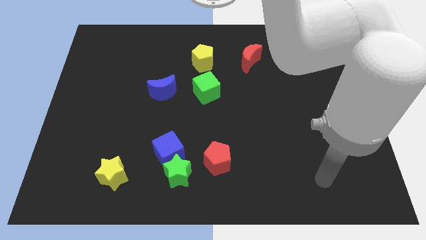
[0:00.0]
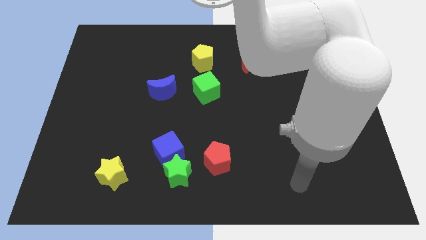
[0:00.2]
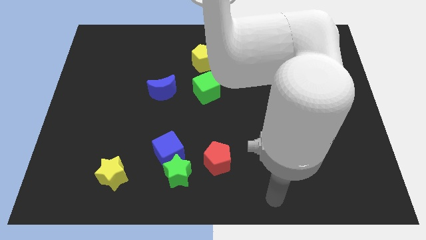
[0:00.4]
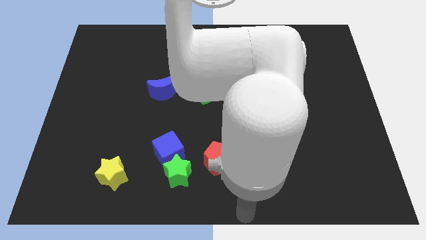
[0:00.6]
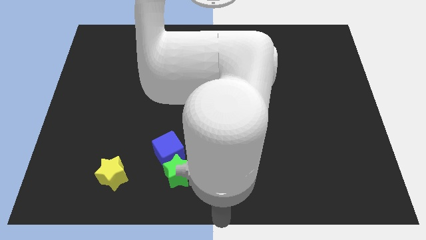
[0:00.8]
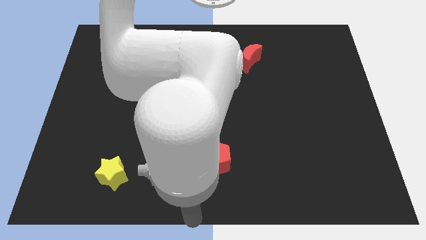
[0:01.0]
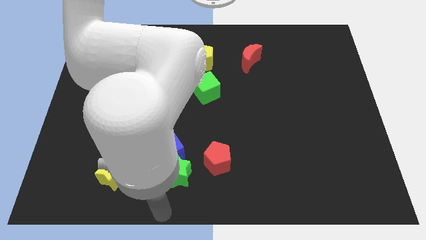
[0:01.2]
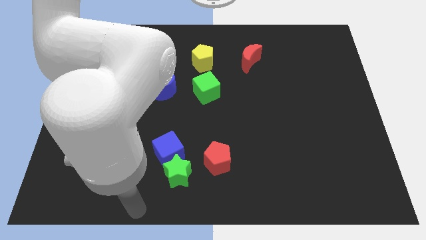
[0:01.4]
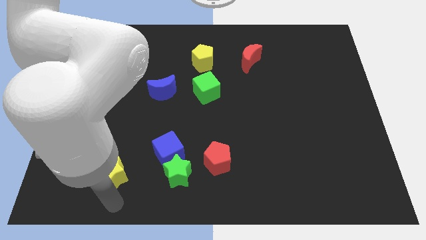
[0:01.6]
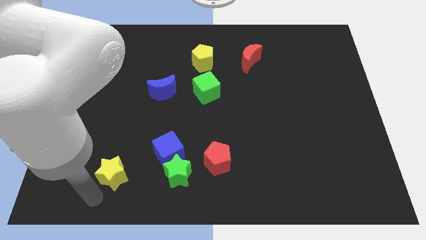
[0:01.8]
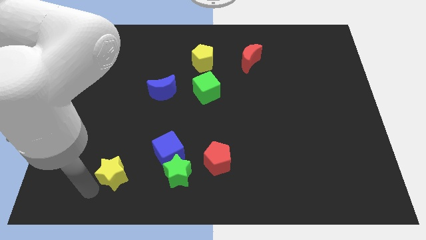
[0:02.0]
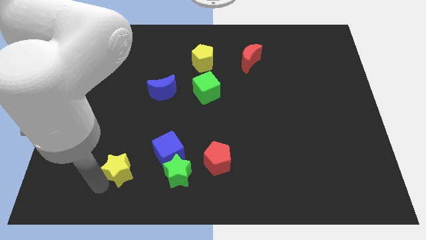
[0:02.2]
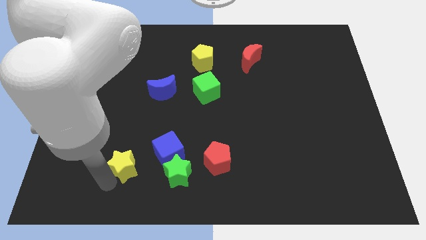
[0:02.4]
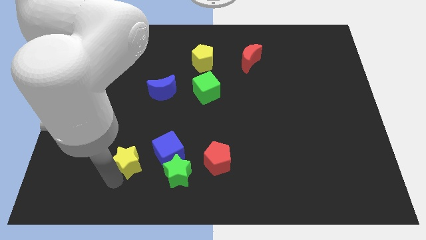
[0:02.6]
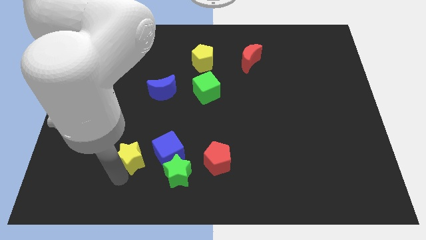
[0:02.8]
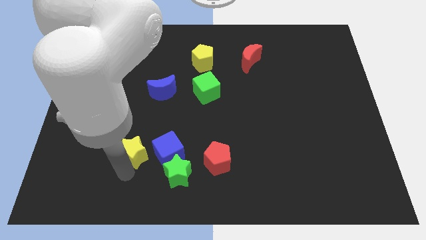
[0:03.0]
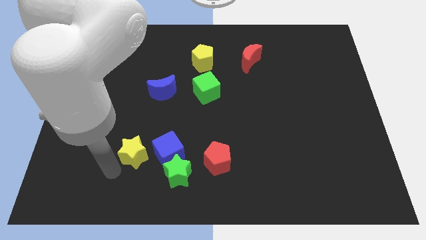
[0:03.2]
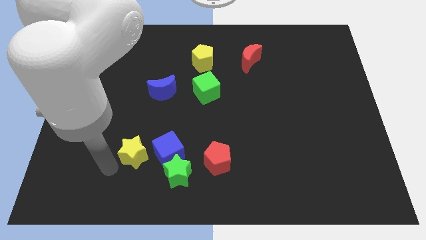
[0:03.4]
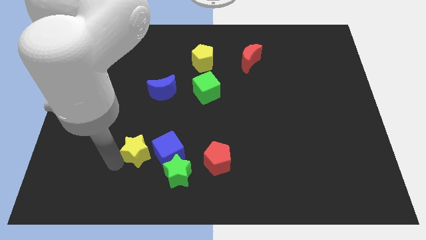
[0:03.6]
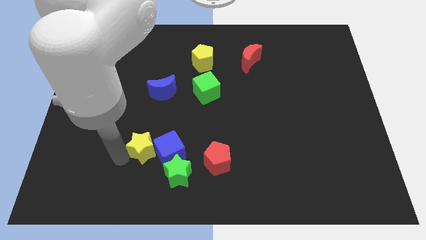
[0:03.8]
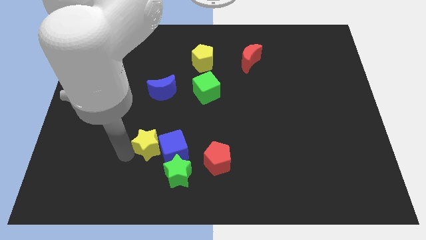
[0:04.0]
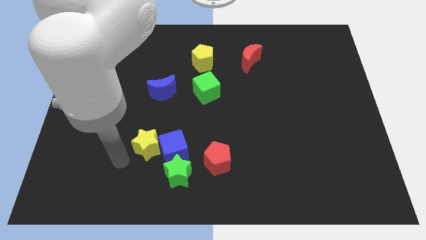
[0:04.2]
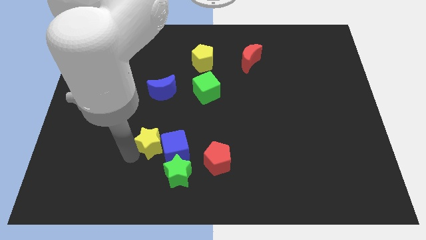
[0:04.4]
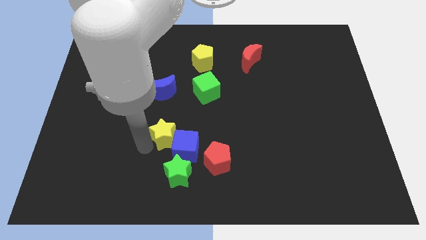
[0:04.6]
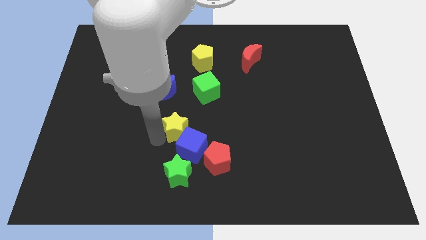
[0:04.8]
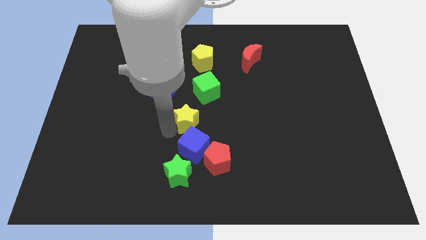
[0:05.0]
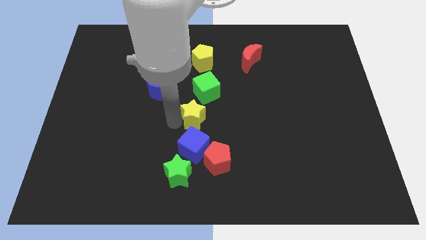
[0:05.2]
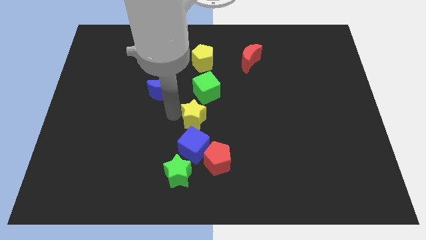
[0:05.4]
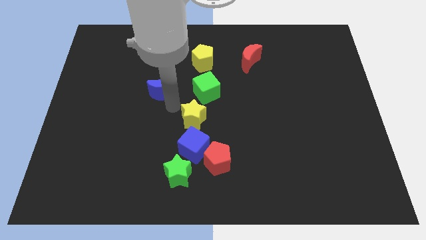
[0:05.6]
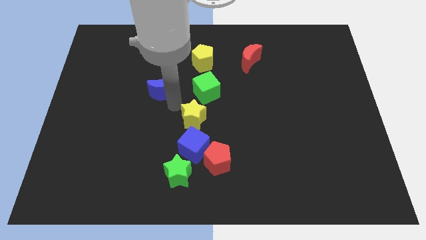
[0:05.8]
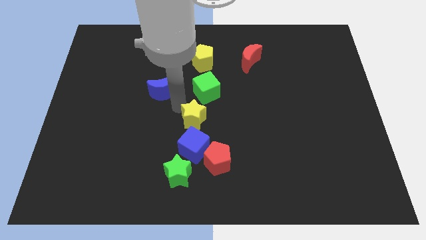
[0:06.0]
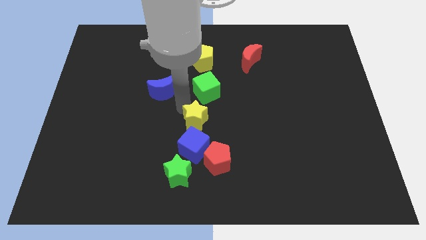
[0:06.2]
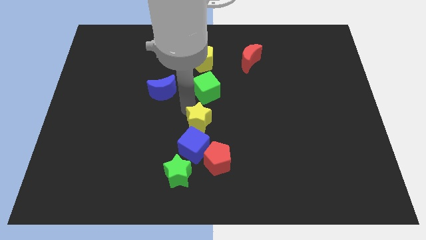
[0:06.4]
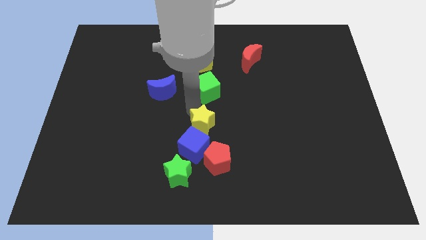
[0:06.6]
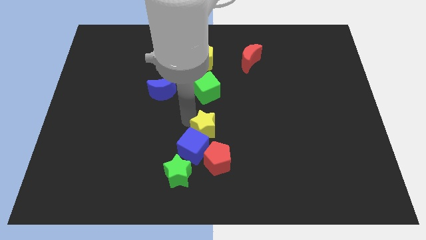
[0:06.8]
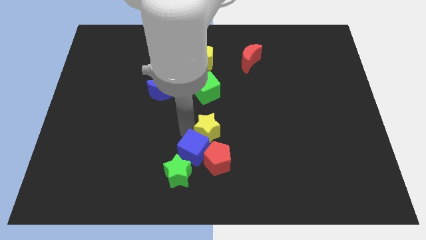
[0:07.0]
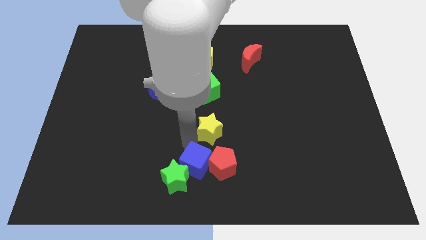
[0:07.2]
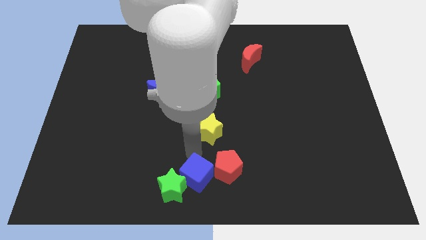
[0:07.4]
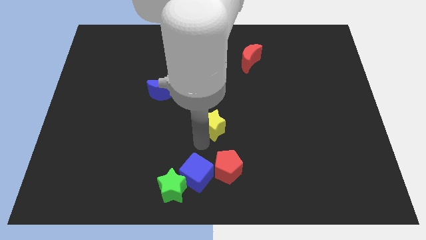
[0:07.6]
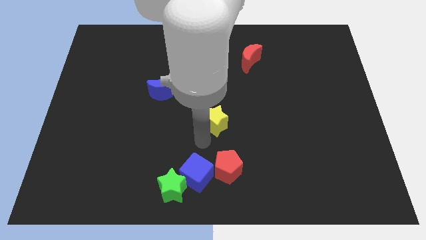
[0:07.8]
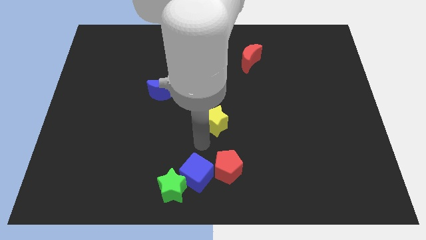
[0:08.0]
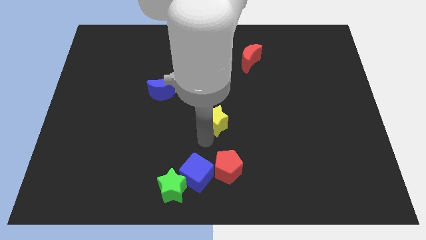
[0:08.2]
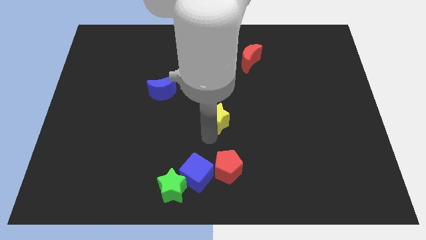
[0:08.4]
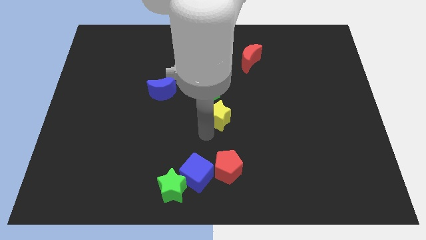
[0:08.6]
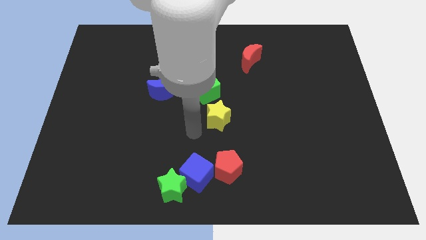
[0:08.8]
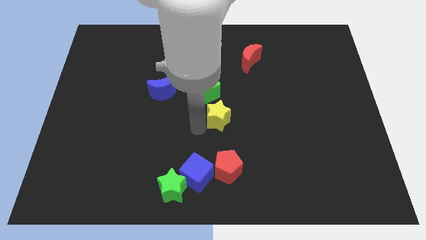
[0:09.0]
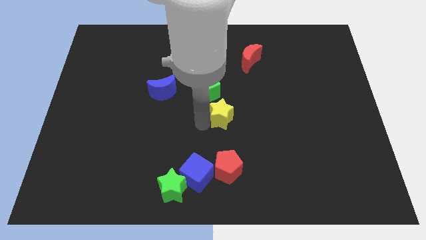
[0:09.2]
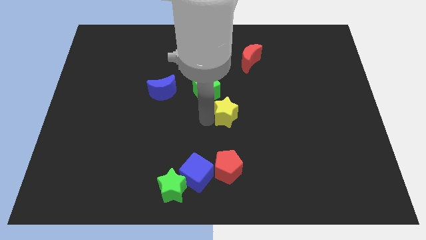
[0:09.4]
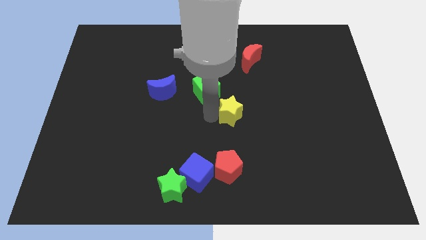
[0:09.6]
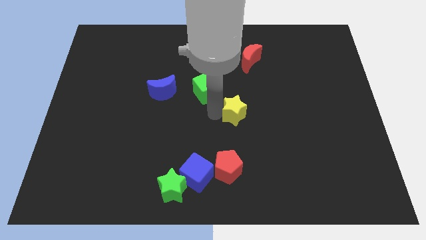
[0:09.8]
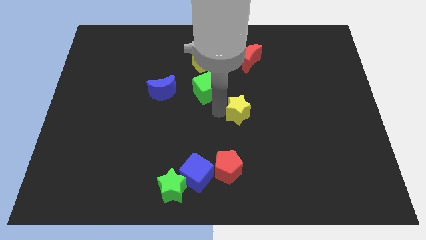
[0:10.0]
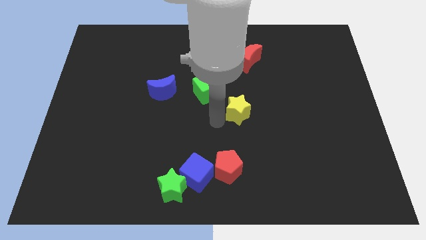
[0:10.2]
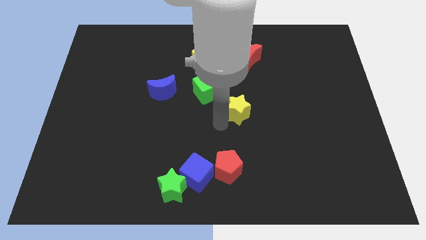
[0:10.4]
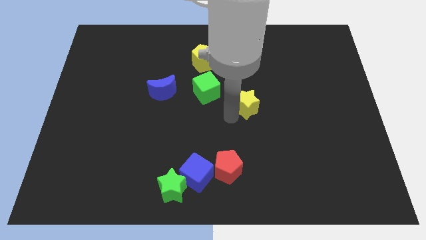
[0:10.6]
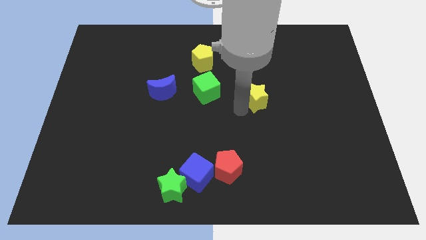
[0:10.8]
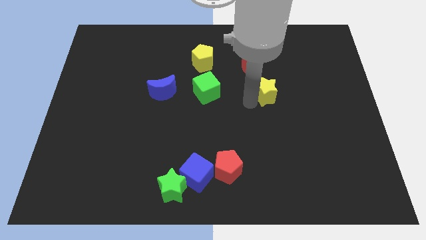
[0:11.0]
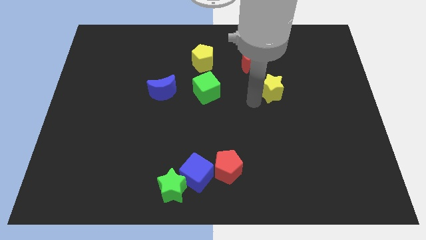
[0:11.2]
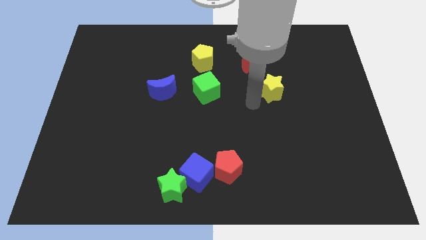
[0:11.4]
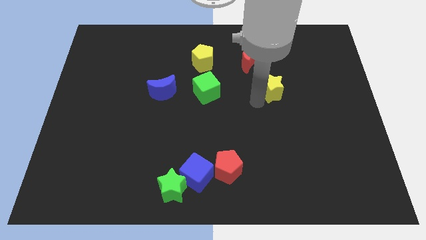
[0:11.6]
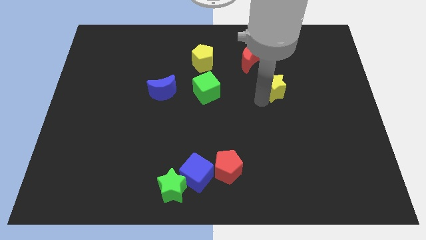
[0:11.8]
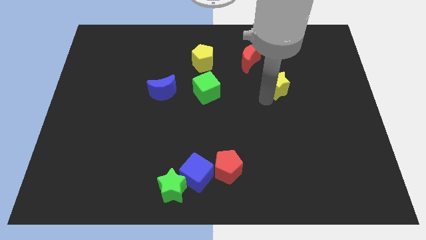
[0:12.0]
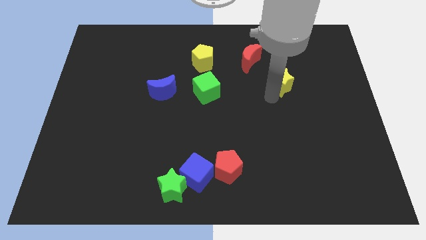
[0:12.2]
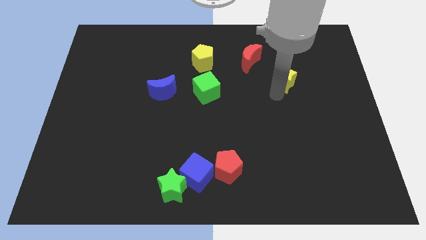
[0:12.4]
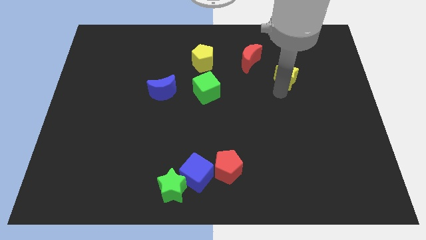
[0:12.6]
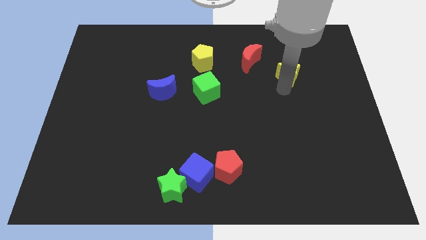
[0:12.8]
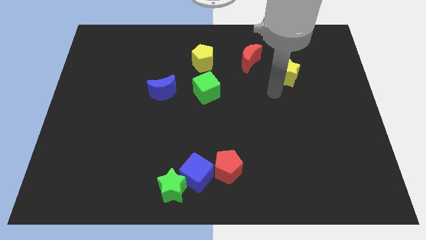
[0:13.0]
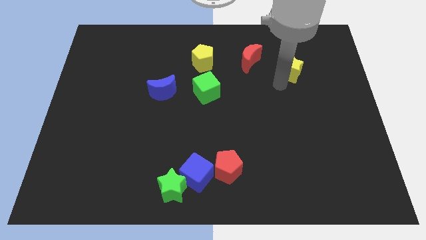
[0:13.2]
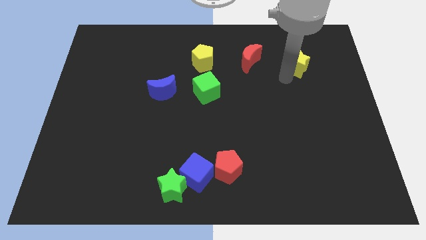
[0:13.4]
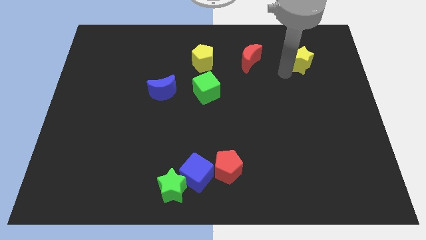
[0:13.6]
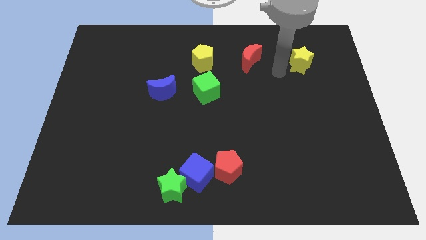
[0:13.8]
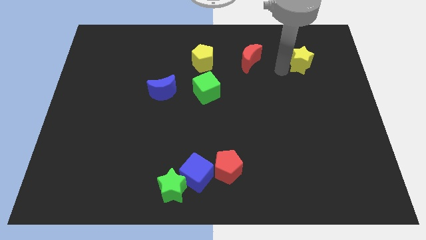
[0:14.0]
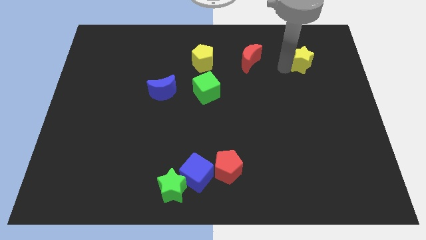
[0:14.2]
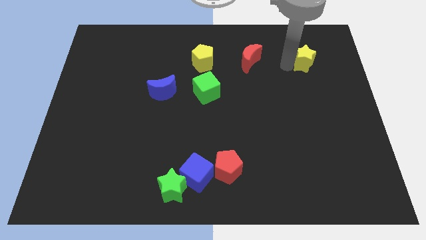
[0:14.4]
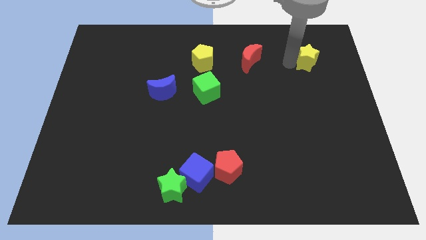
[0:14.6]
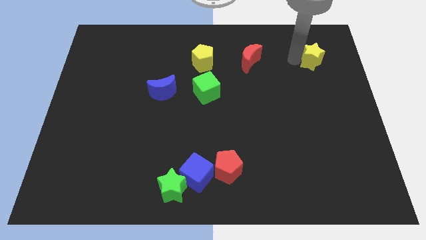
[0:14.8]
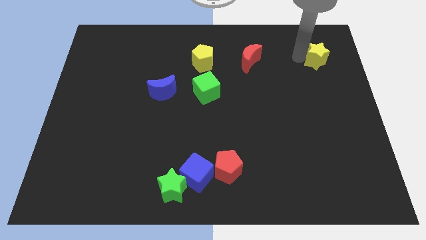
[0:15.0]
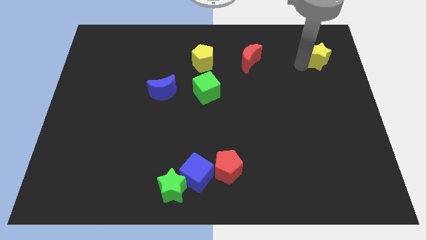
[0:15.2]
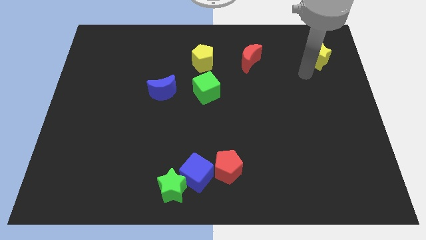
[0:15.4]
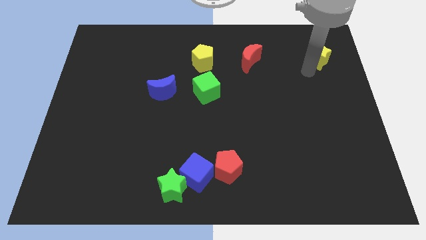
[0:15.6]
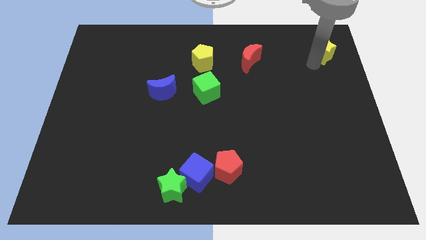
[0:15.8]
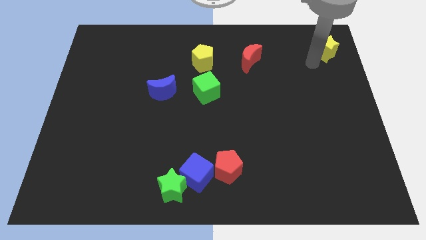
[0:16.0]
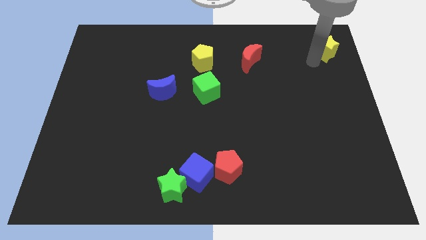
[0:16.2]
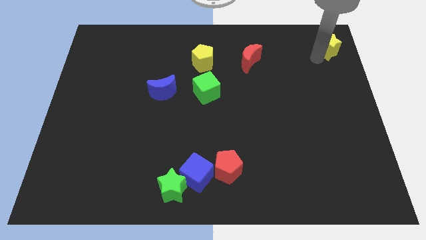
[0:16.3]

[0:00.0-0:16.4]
move the yellow star to the top right
